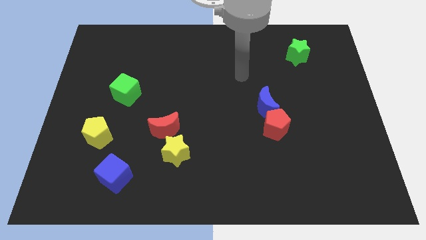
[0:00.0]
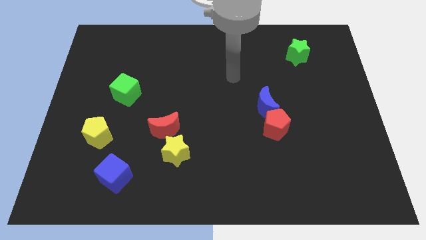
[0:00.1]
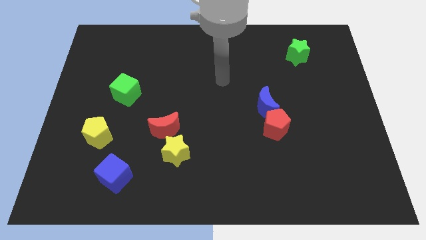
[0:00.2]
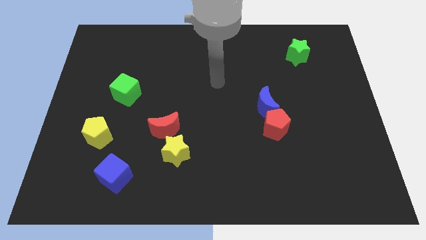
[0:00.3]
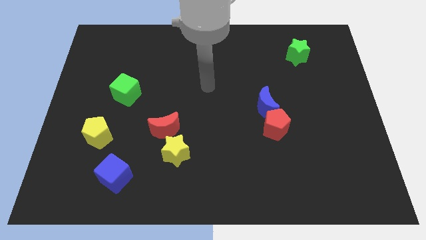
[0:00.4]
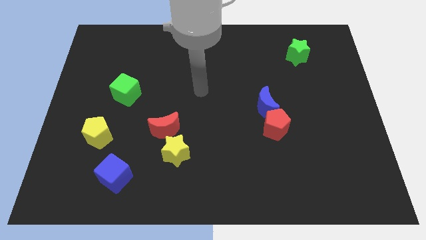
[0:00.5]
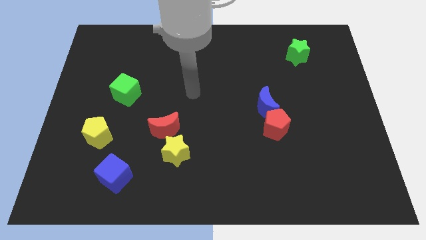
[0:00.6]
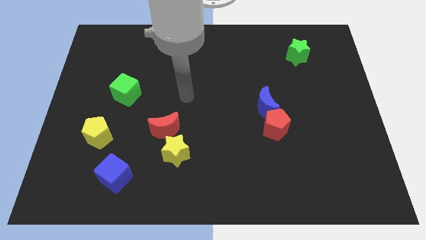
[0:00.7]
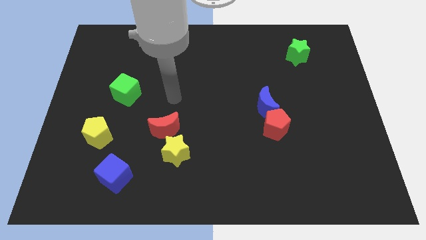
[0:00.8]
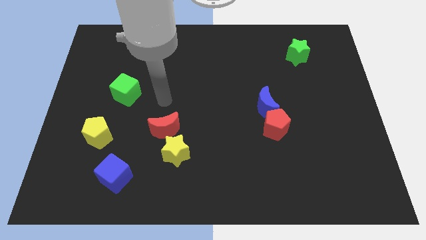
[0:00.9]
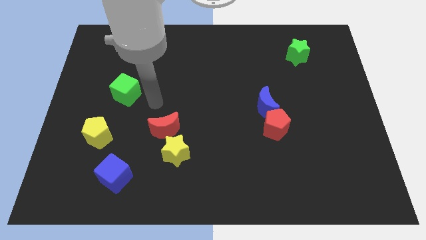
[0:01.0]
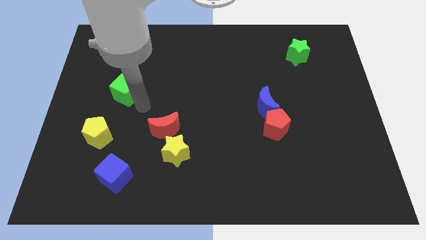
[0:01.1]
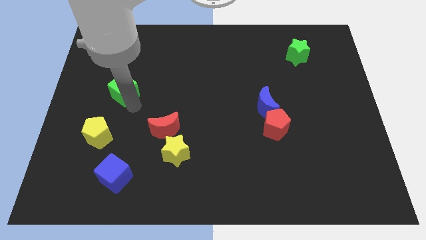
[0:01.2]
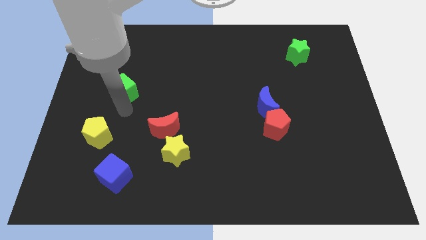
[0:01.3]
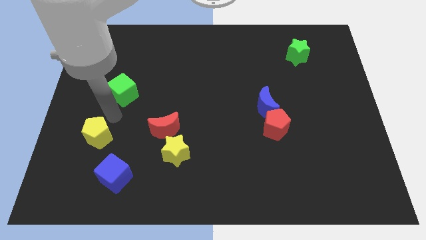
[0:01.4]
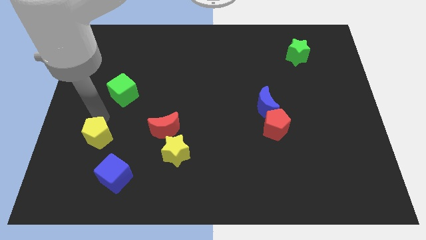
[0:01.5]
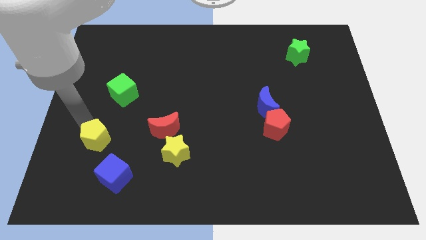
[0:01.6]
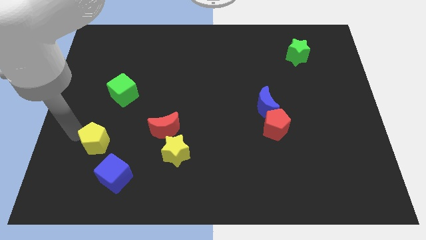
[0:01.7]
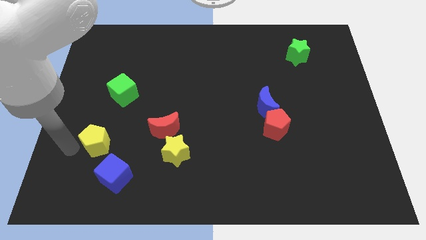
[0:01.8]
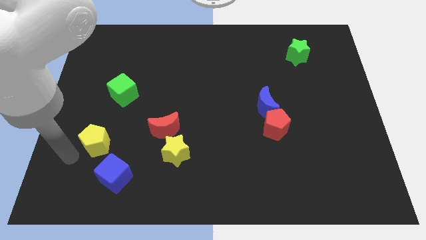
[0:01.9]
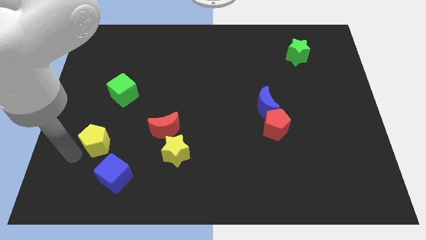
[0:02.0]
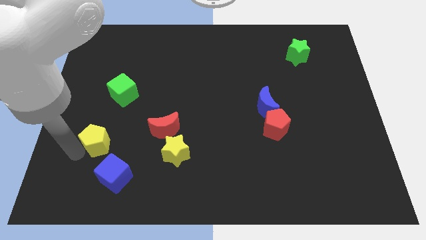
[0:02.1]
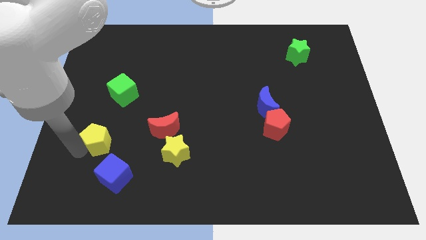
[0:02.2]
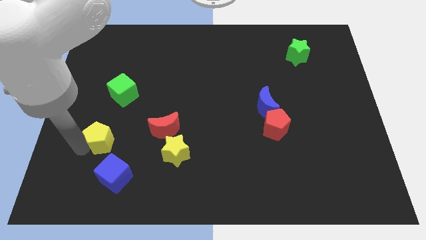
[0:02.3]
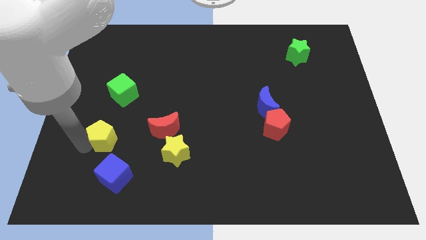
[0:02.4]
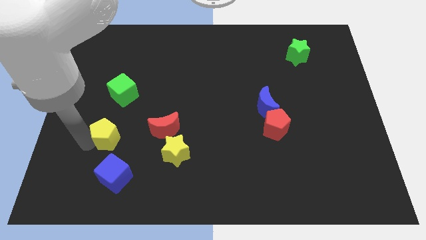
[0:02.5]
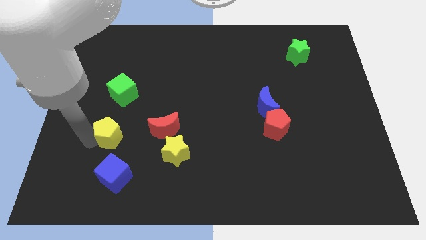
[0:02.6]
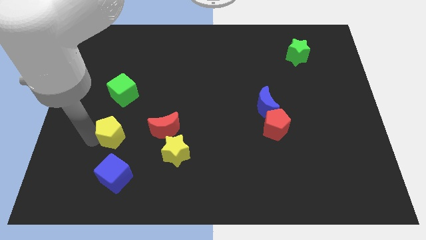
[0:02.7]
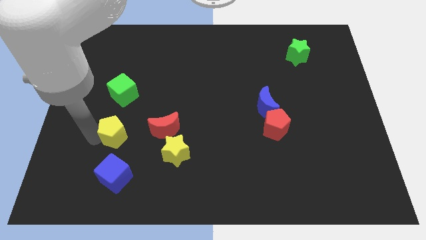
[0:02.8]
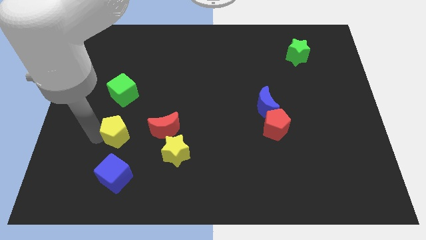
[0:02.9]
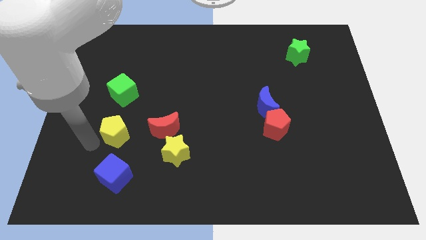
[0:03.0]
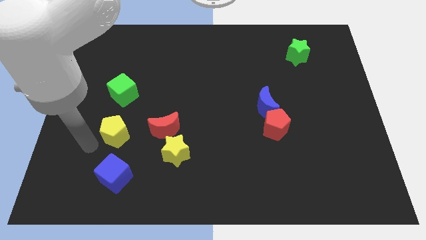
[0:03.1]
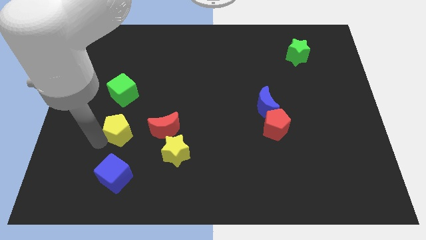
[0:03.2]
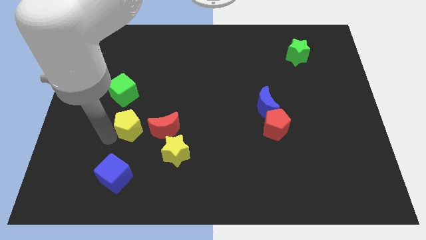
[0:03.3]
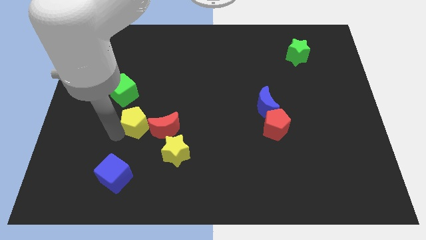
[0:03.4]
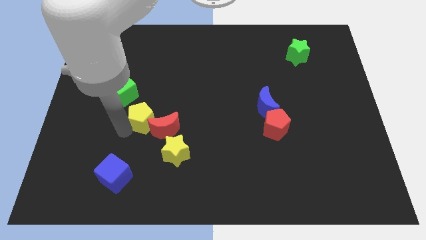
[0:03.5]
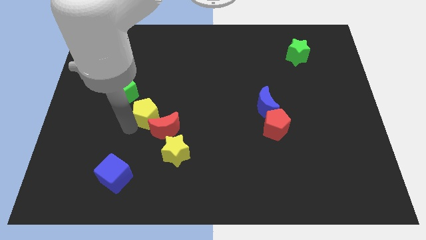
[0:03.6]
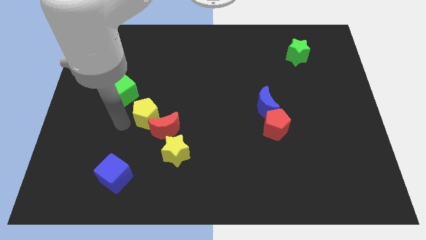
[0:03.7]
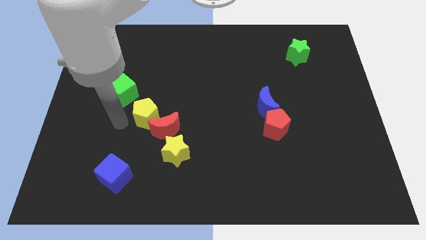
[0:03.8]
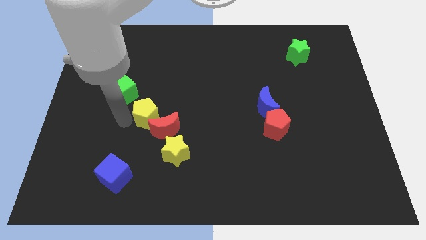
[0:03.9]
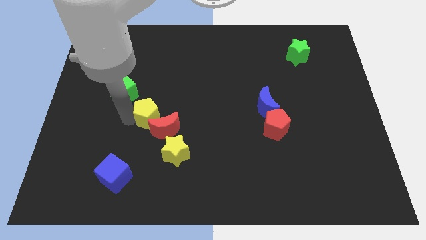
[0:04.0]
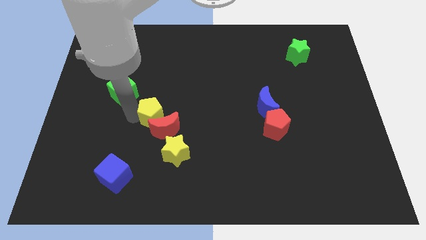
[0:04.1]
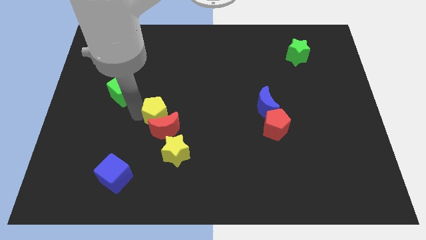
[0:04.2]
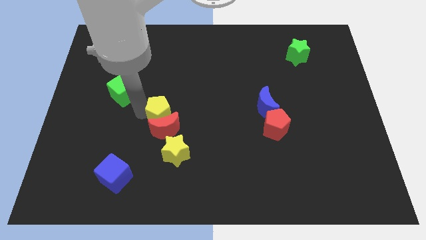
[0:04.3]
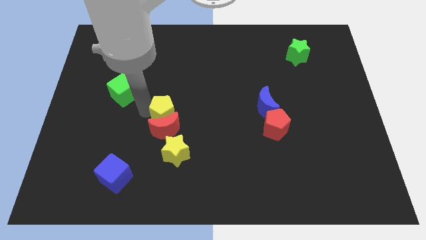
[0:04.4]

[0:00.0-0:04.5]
slide the yellow pentagon to the center of the board

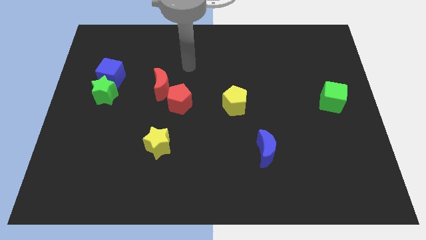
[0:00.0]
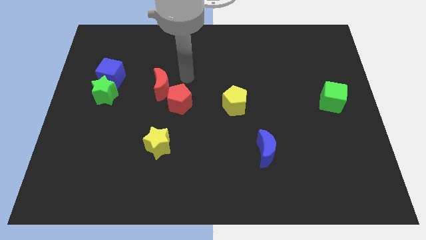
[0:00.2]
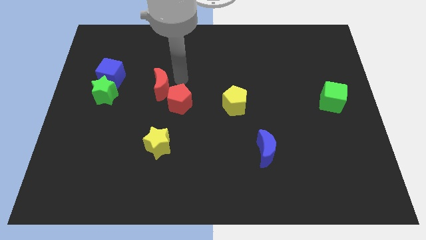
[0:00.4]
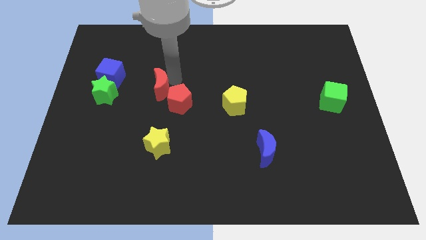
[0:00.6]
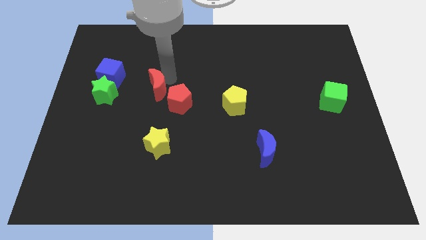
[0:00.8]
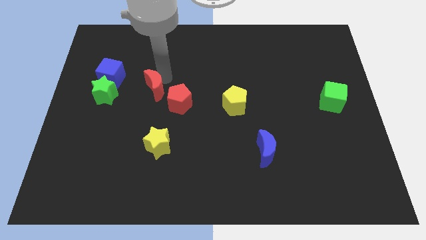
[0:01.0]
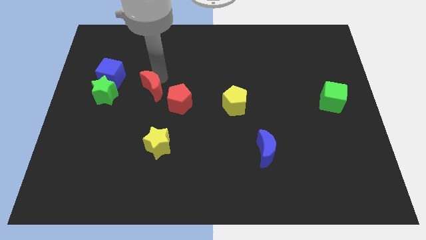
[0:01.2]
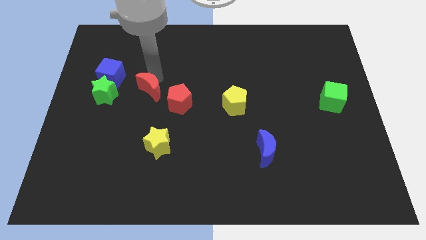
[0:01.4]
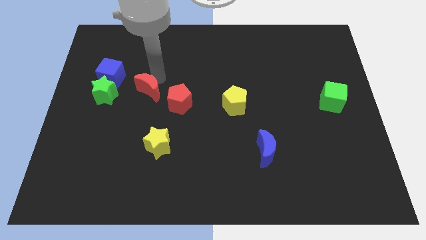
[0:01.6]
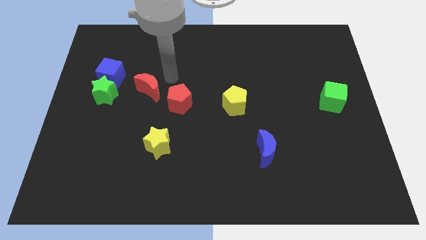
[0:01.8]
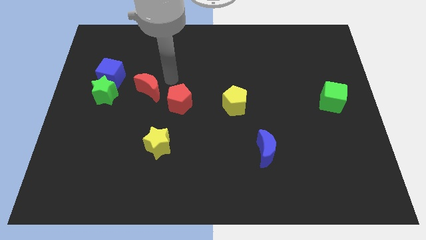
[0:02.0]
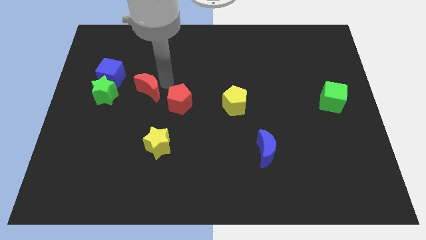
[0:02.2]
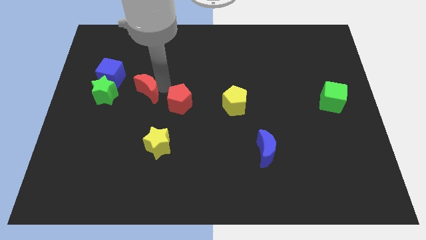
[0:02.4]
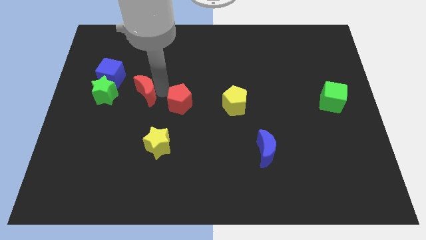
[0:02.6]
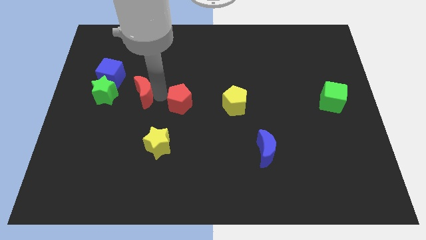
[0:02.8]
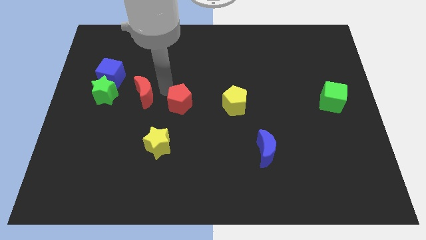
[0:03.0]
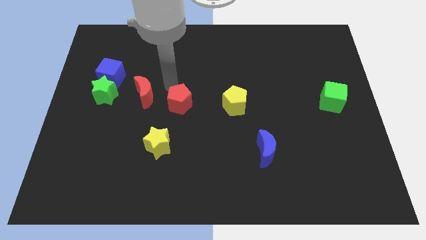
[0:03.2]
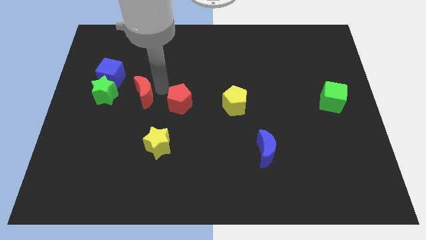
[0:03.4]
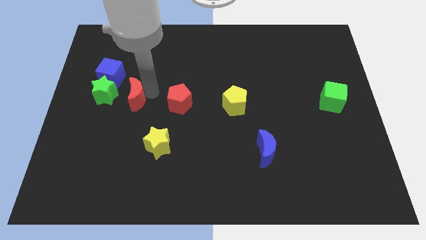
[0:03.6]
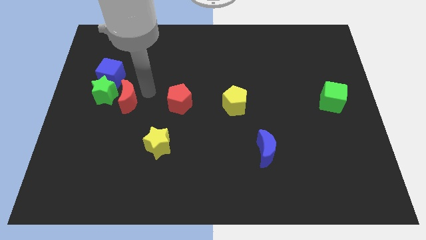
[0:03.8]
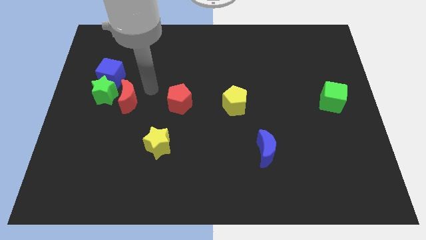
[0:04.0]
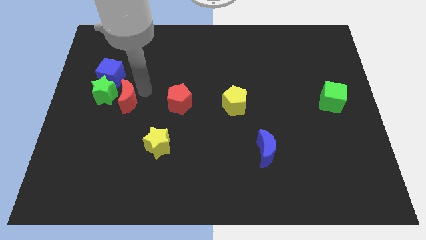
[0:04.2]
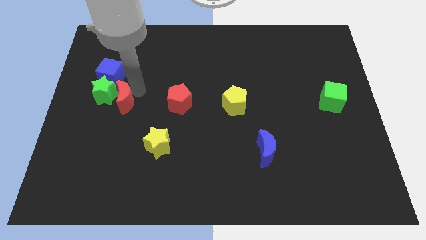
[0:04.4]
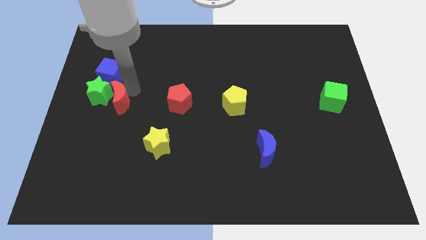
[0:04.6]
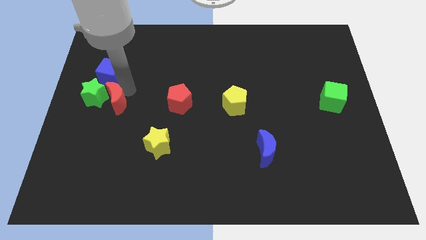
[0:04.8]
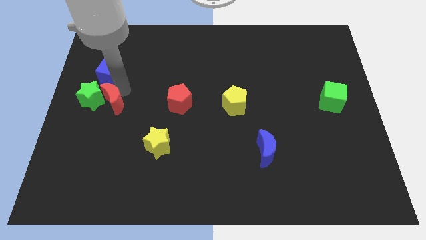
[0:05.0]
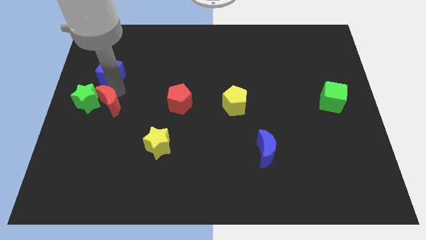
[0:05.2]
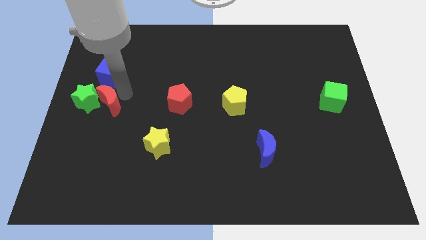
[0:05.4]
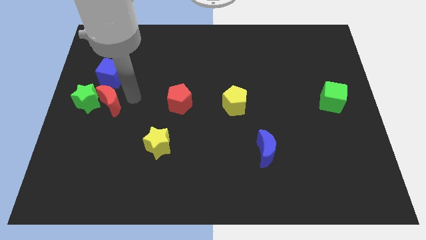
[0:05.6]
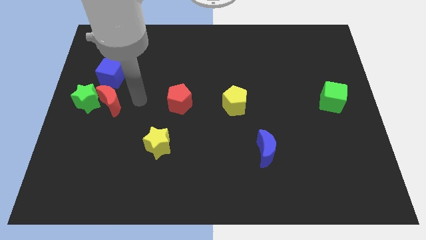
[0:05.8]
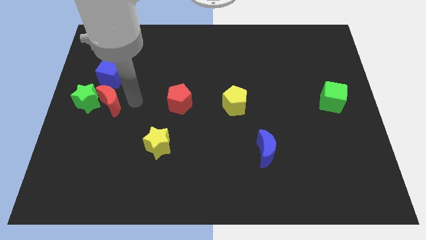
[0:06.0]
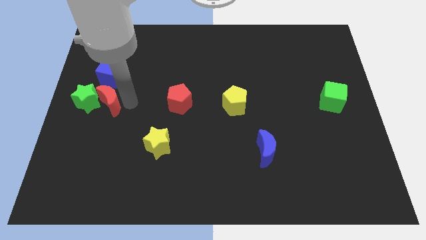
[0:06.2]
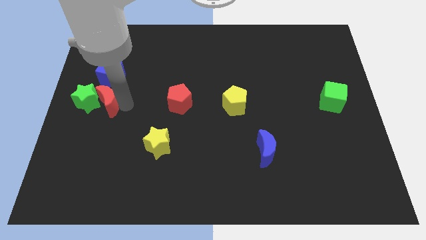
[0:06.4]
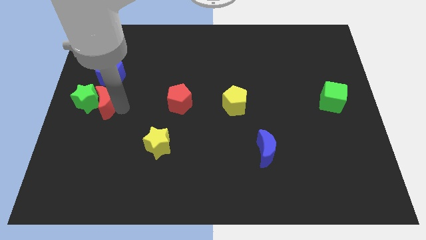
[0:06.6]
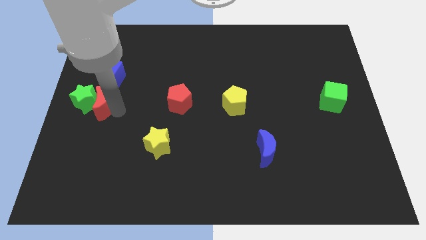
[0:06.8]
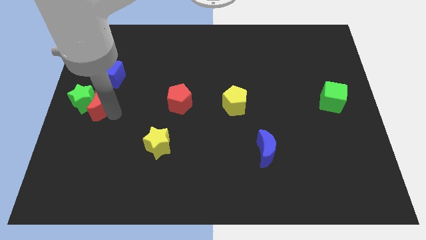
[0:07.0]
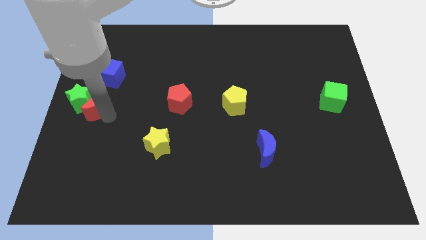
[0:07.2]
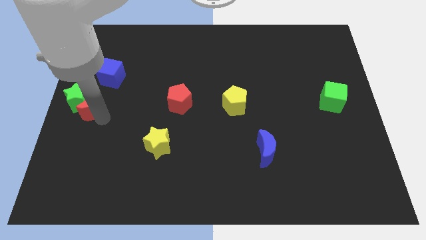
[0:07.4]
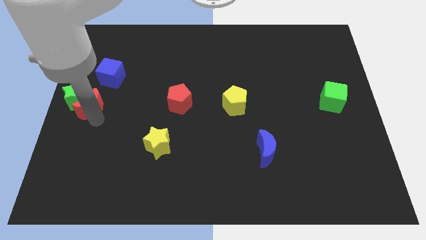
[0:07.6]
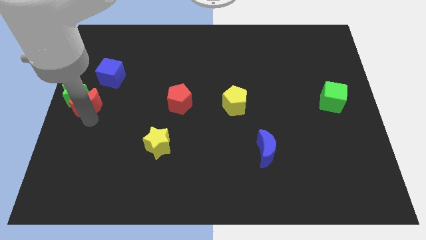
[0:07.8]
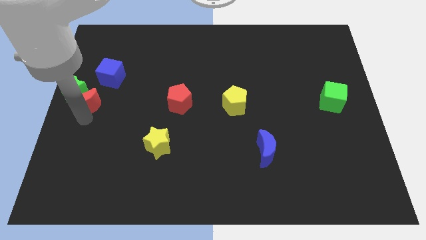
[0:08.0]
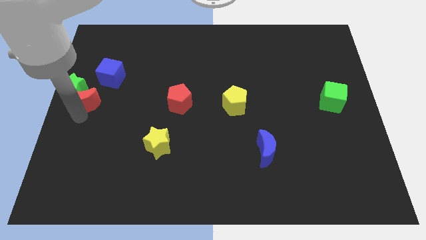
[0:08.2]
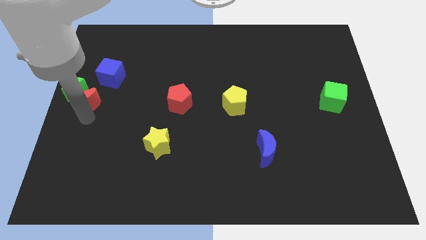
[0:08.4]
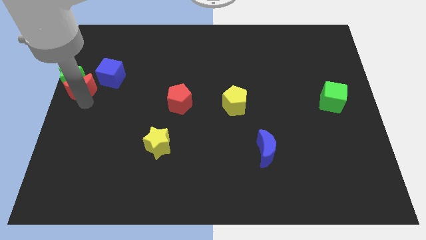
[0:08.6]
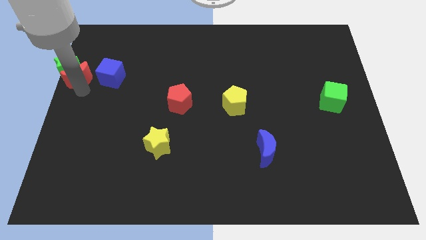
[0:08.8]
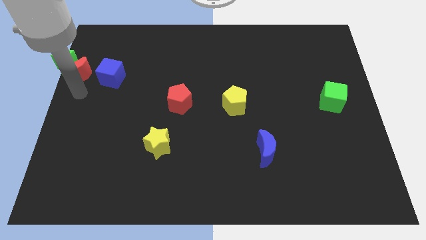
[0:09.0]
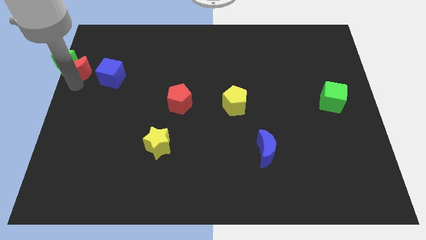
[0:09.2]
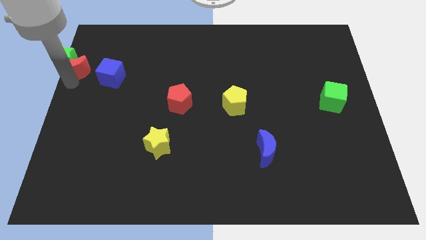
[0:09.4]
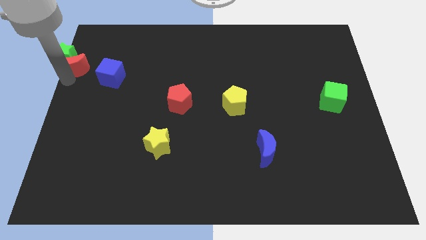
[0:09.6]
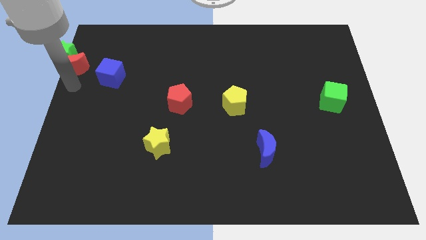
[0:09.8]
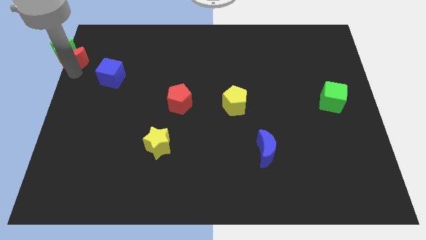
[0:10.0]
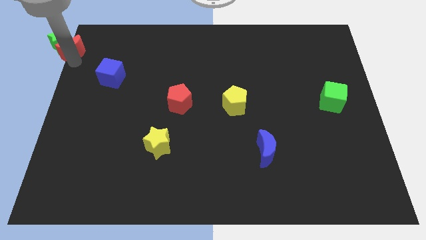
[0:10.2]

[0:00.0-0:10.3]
put the red moon to the top left
